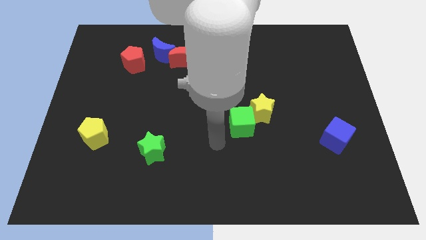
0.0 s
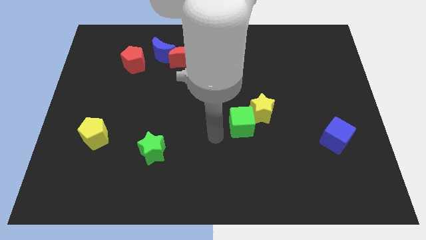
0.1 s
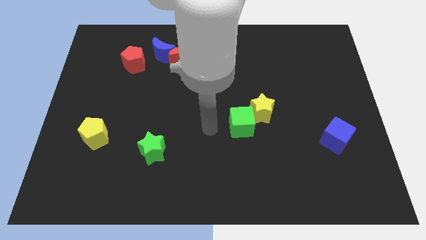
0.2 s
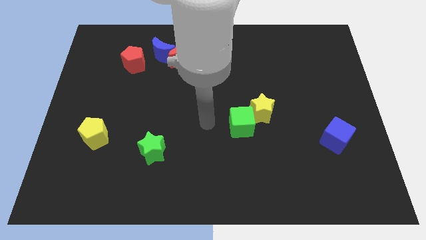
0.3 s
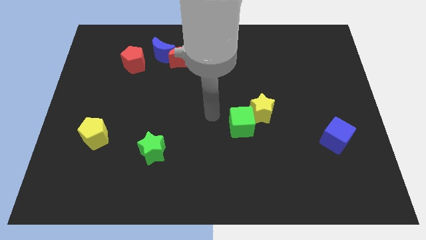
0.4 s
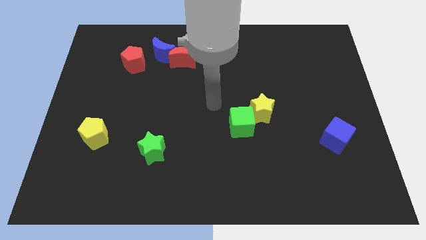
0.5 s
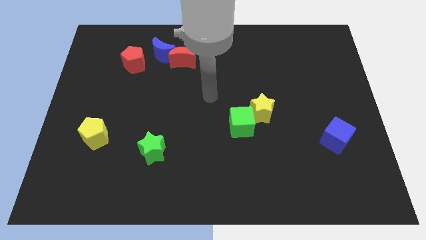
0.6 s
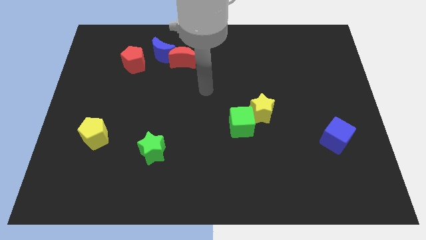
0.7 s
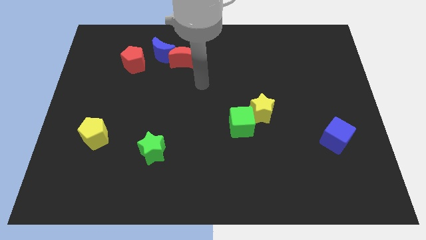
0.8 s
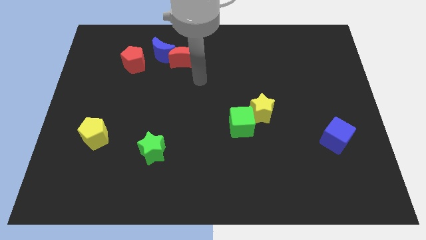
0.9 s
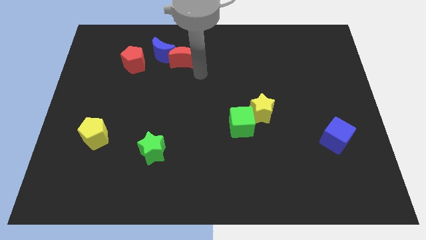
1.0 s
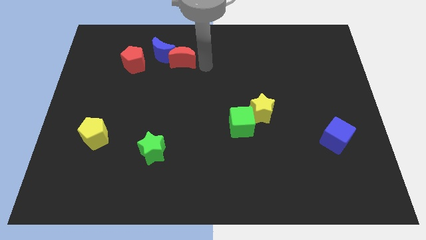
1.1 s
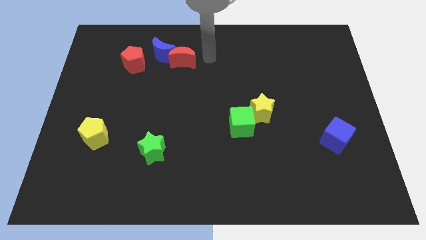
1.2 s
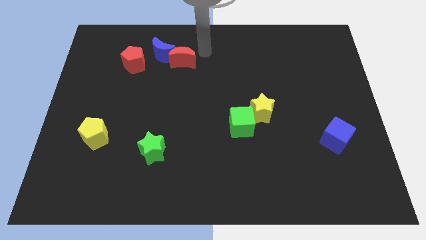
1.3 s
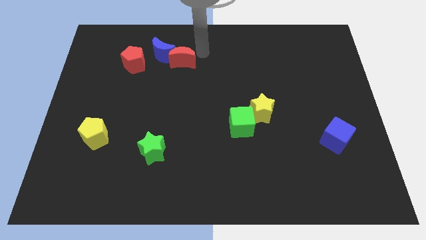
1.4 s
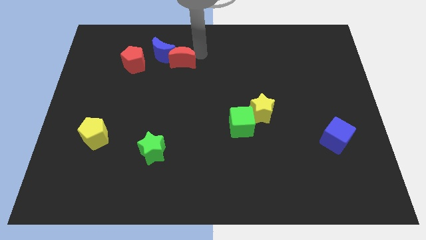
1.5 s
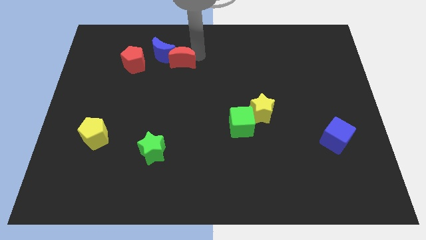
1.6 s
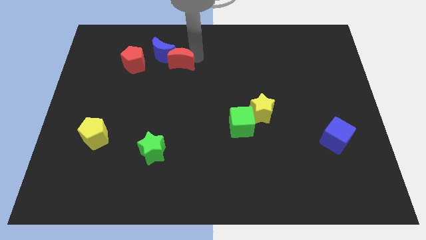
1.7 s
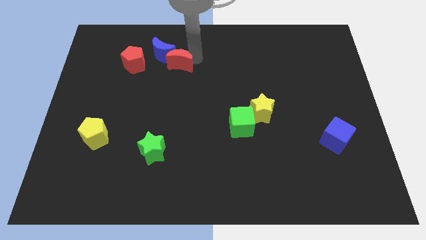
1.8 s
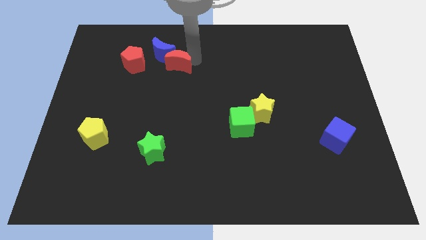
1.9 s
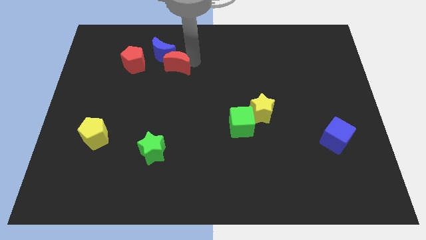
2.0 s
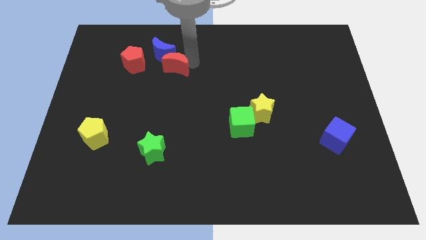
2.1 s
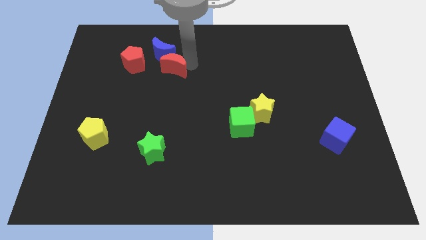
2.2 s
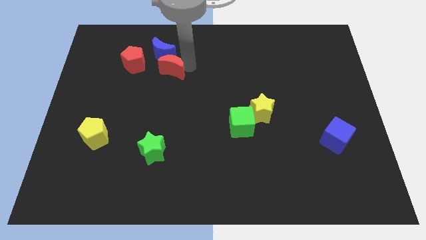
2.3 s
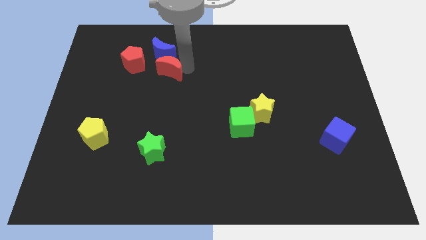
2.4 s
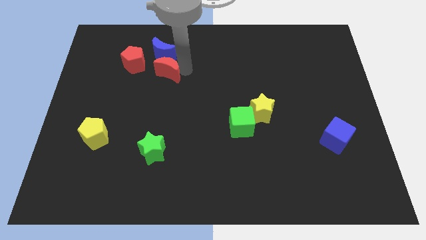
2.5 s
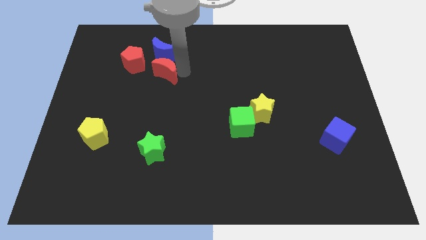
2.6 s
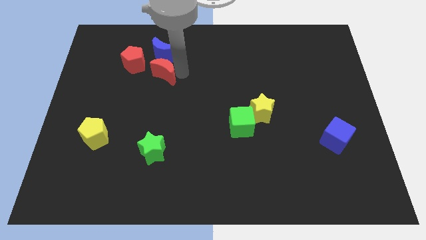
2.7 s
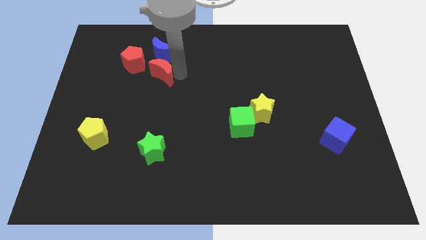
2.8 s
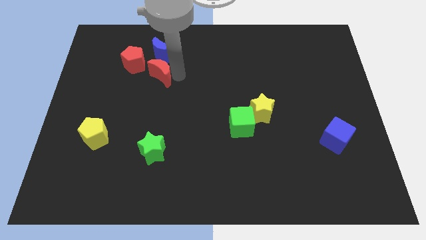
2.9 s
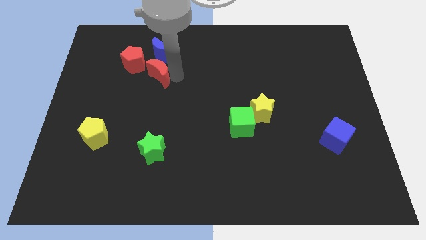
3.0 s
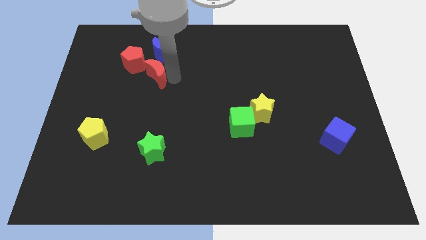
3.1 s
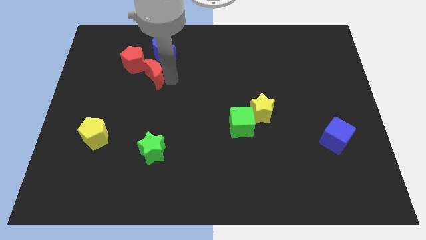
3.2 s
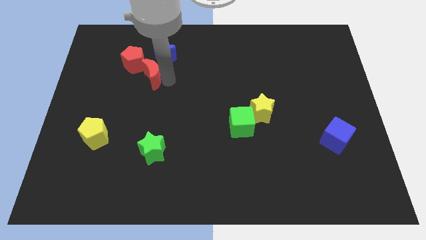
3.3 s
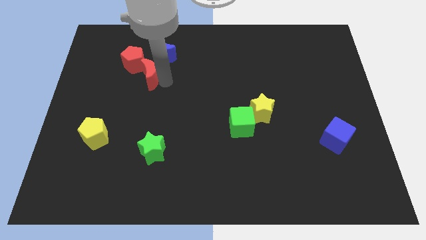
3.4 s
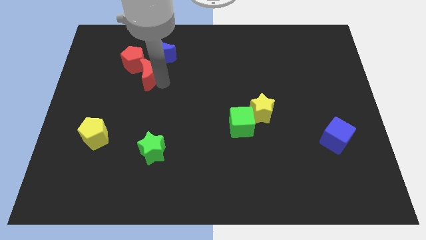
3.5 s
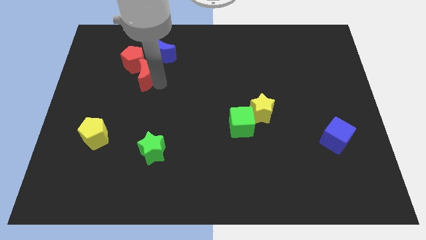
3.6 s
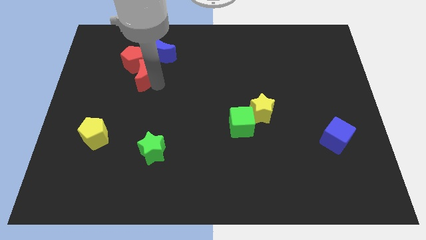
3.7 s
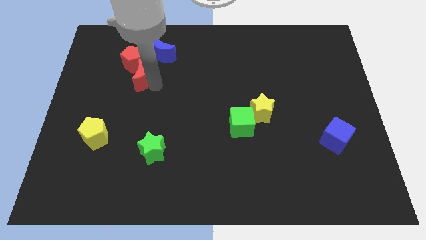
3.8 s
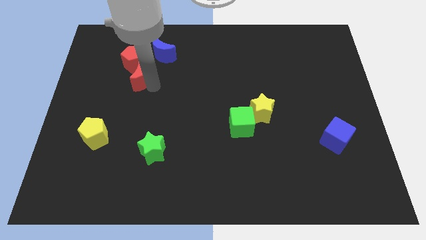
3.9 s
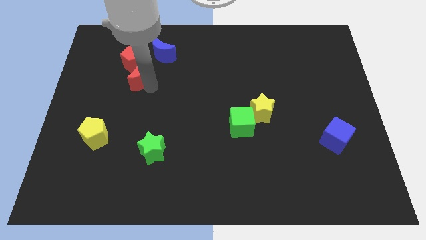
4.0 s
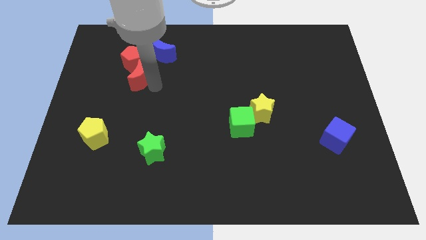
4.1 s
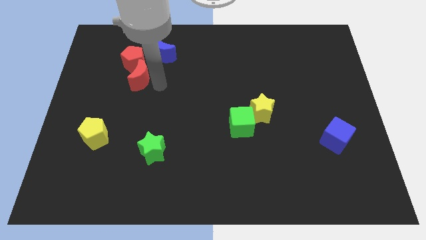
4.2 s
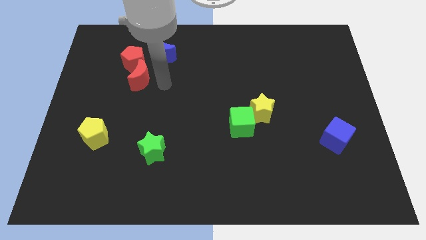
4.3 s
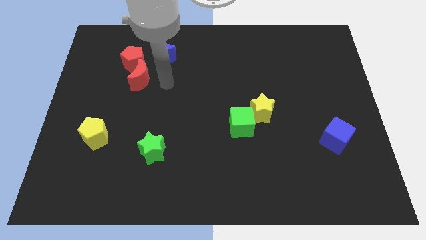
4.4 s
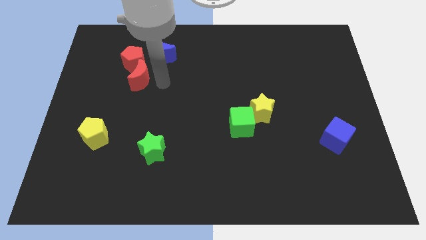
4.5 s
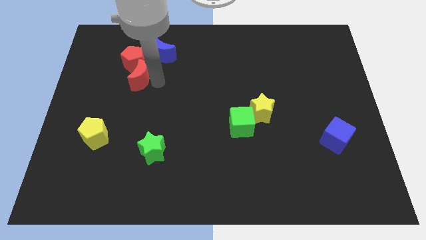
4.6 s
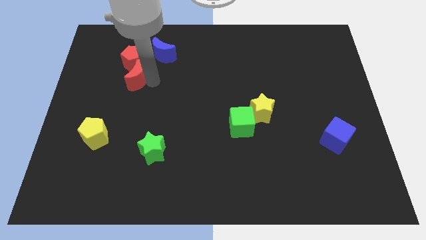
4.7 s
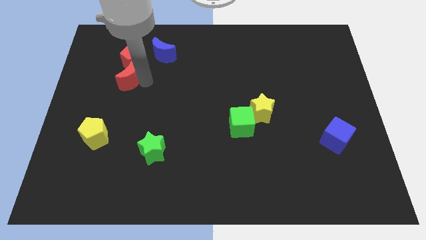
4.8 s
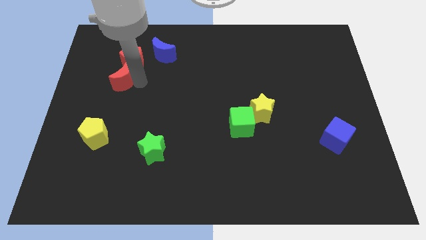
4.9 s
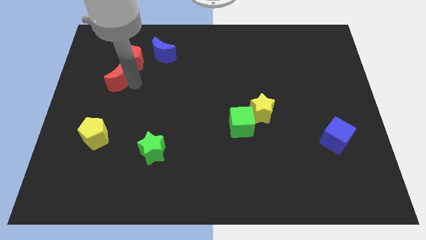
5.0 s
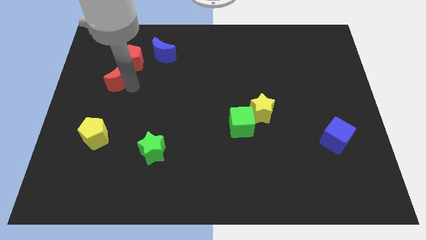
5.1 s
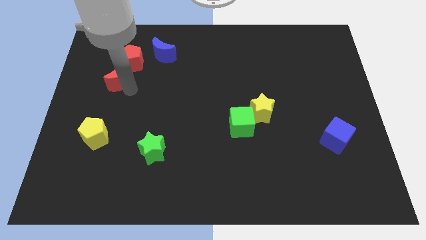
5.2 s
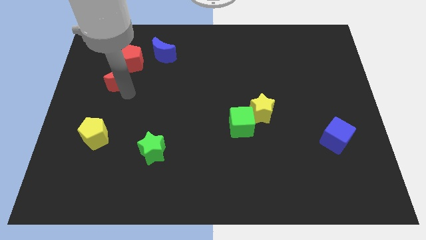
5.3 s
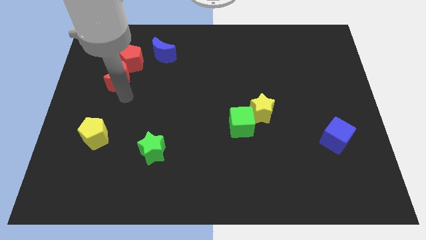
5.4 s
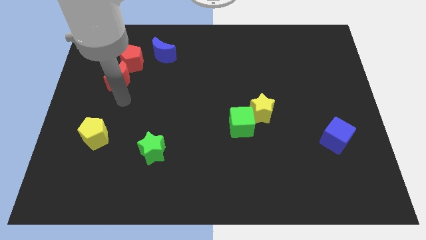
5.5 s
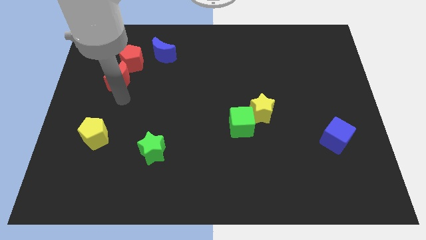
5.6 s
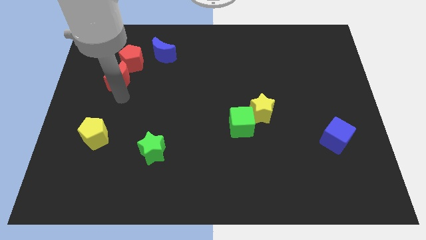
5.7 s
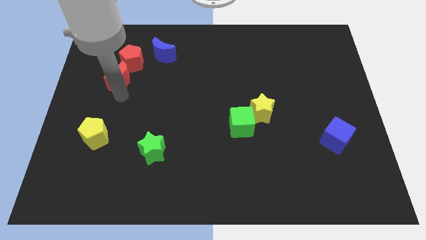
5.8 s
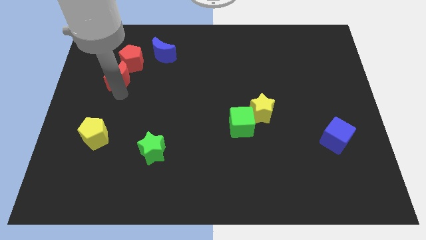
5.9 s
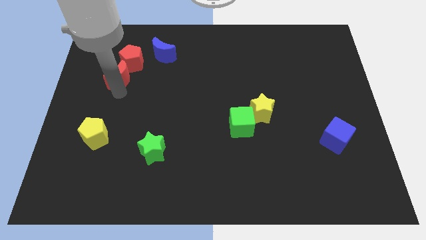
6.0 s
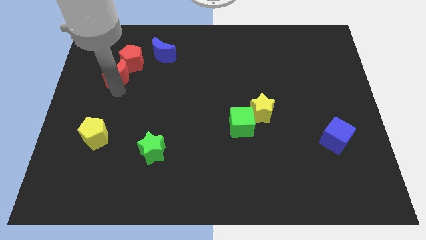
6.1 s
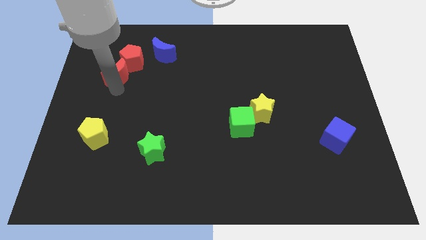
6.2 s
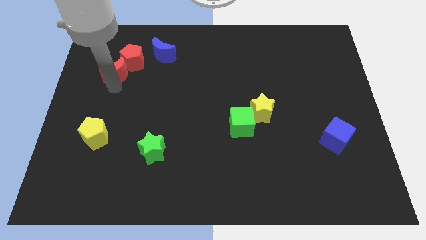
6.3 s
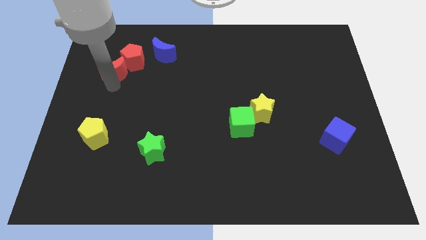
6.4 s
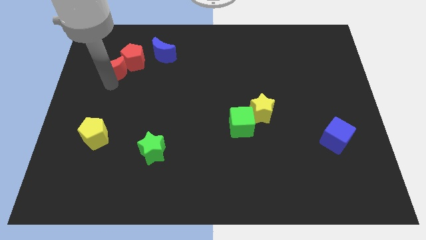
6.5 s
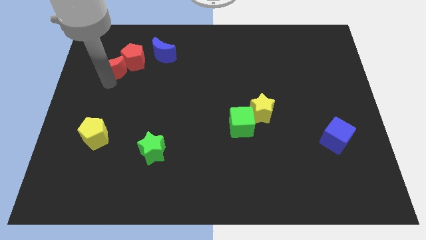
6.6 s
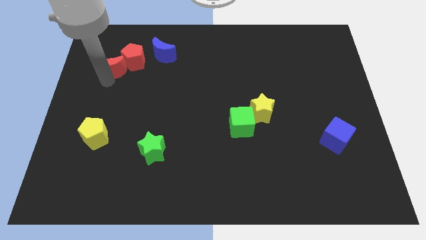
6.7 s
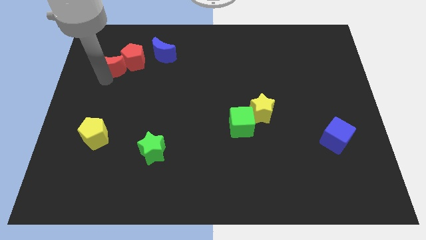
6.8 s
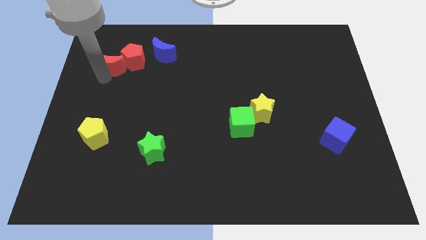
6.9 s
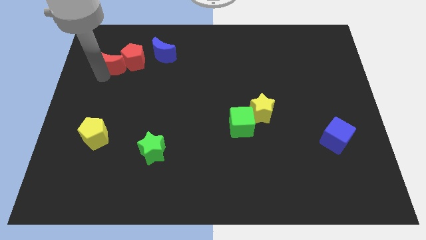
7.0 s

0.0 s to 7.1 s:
move the red moon to the left of the blue moon

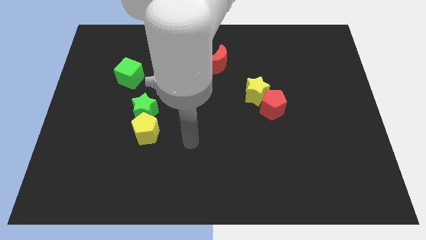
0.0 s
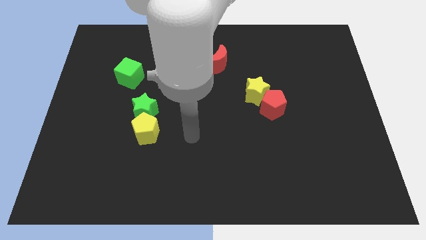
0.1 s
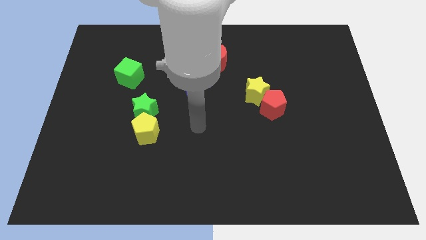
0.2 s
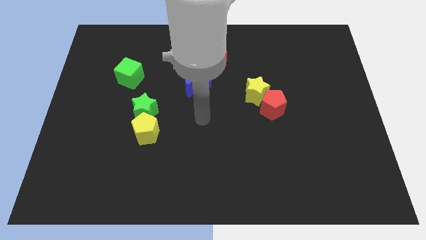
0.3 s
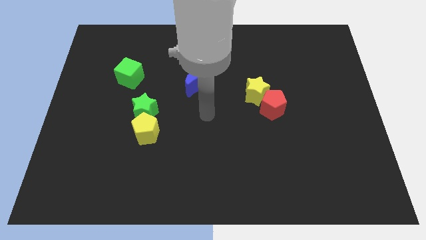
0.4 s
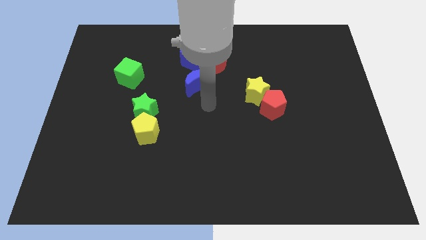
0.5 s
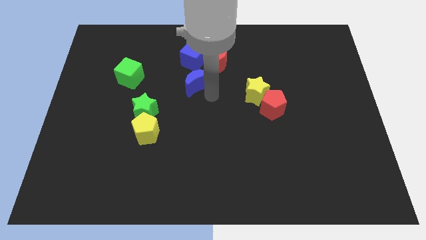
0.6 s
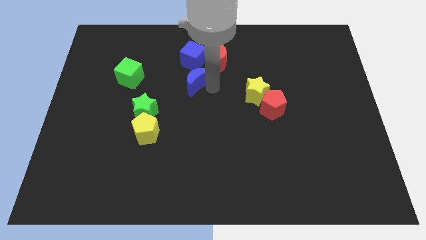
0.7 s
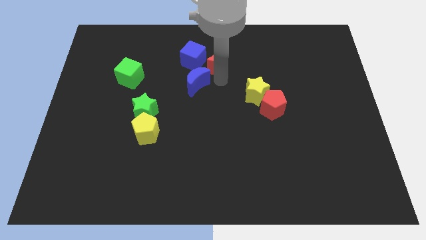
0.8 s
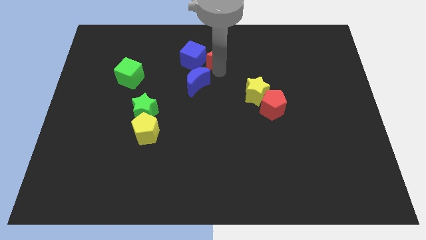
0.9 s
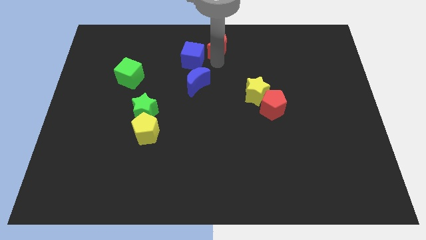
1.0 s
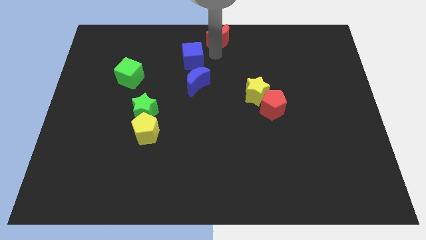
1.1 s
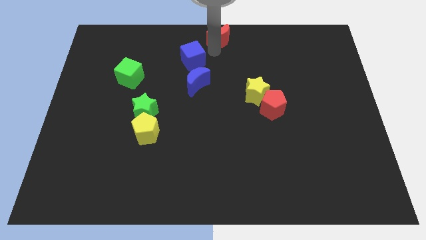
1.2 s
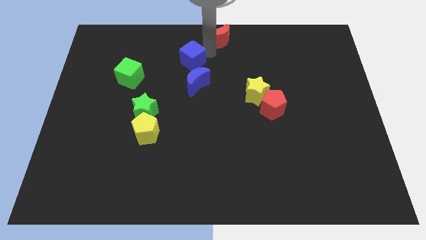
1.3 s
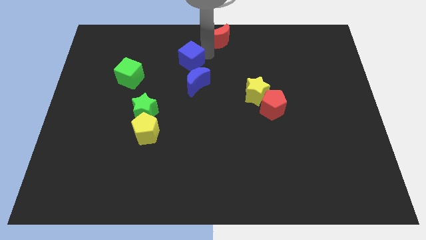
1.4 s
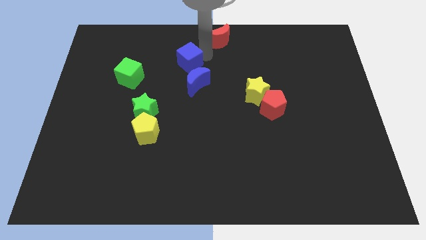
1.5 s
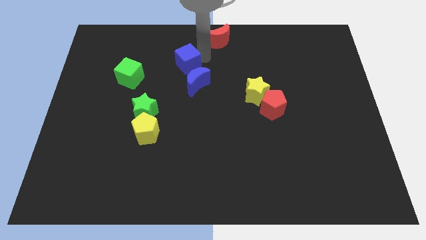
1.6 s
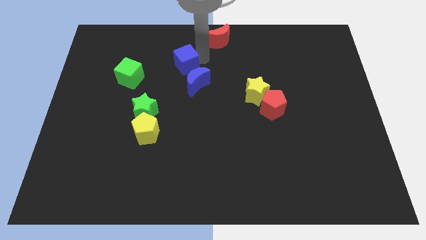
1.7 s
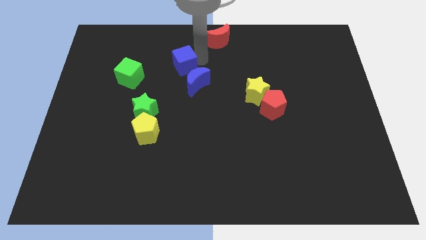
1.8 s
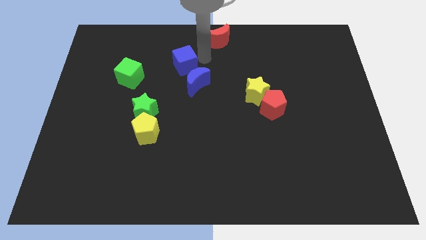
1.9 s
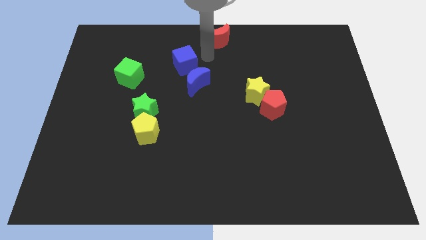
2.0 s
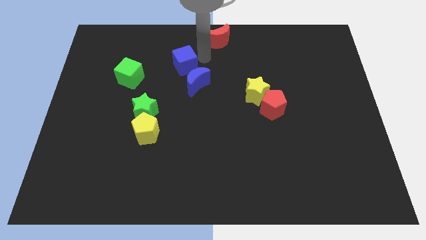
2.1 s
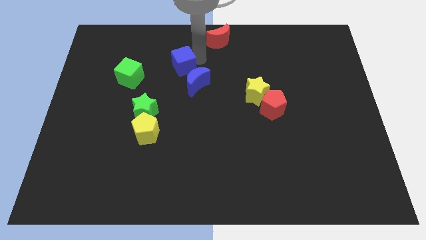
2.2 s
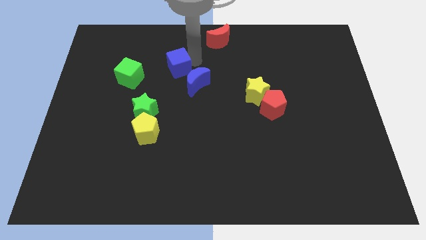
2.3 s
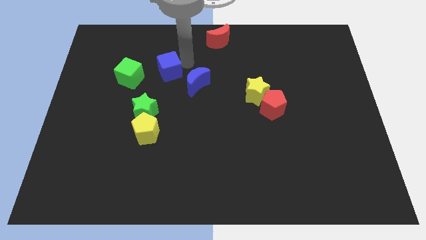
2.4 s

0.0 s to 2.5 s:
move the blue cube left of the blue moon
